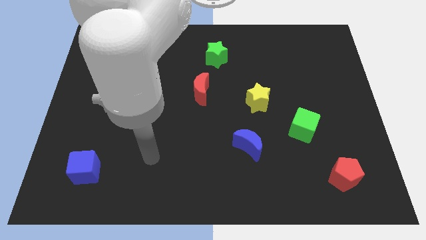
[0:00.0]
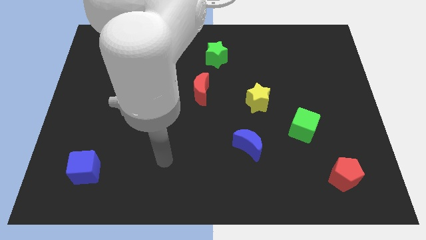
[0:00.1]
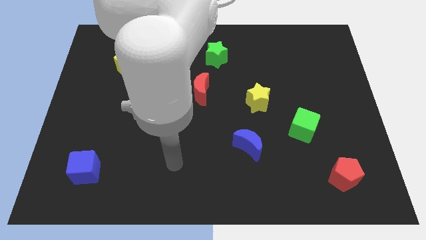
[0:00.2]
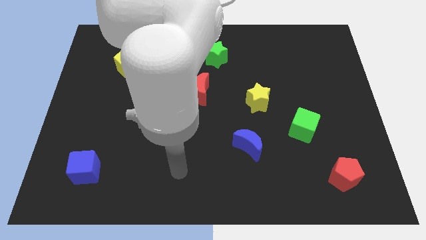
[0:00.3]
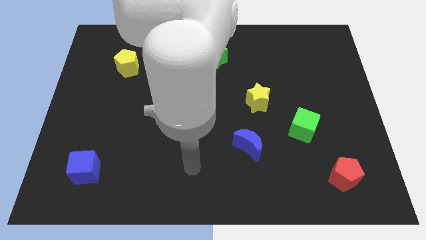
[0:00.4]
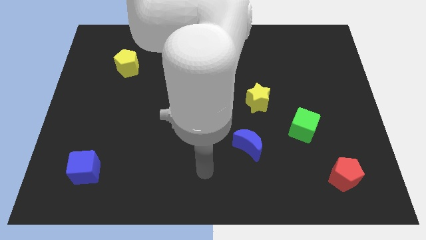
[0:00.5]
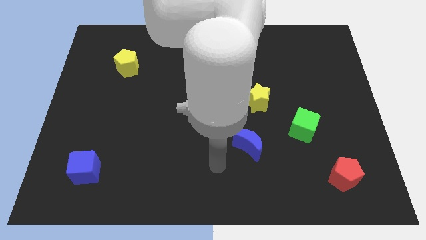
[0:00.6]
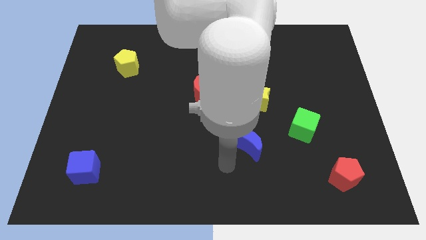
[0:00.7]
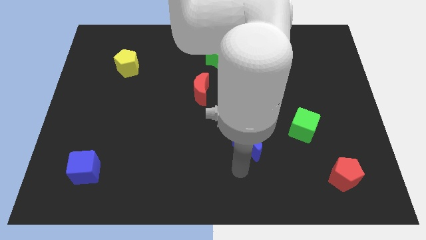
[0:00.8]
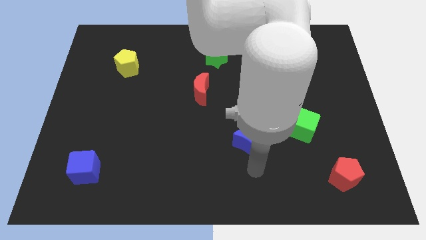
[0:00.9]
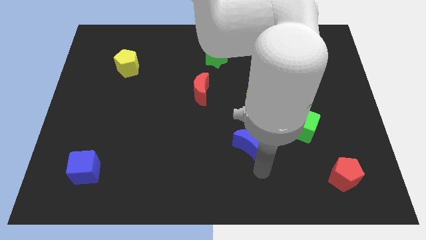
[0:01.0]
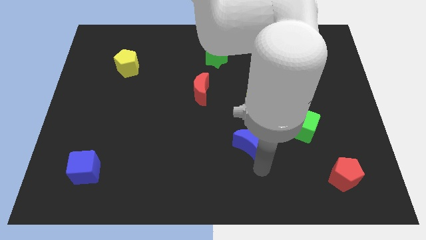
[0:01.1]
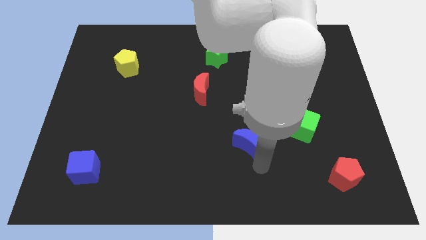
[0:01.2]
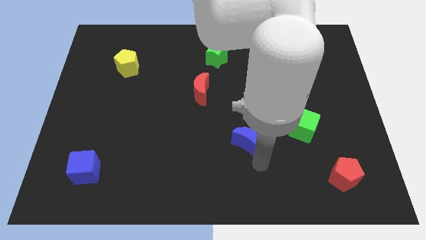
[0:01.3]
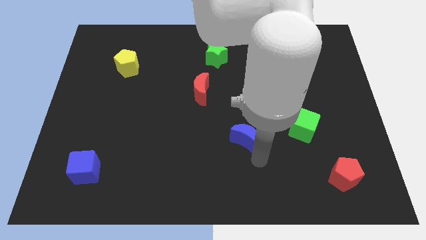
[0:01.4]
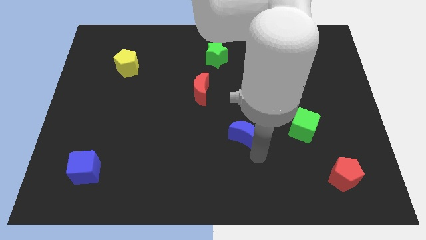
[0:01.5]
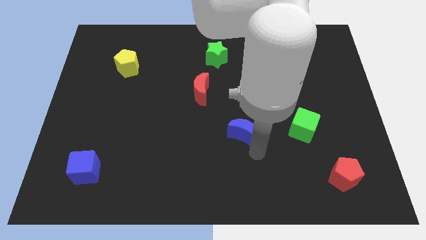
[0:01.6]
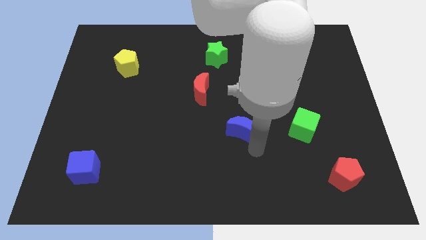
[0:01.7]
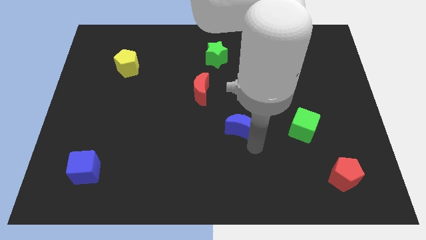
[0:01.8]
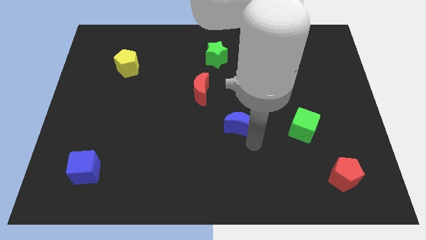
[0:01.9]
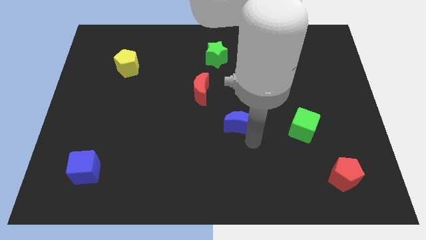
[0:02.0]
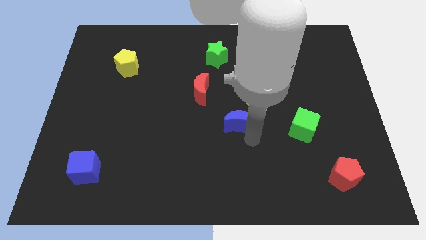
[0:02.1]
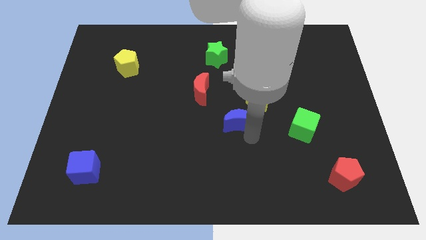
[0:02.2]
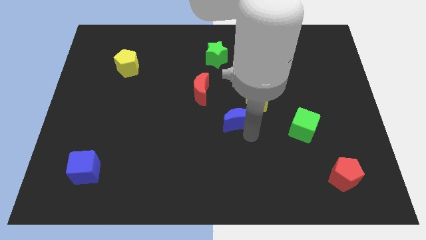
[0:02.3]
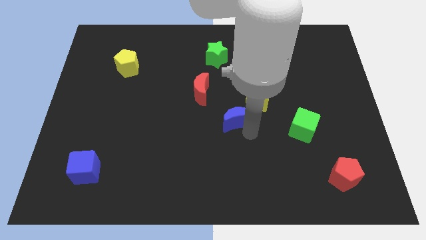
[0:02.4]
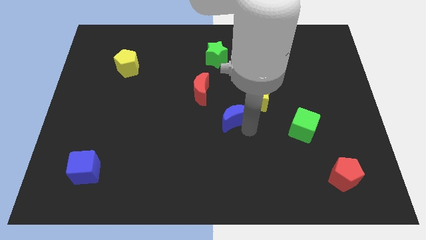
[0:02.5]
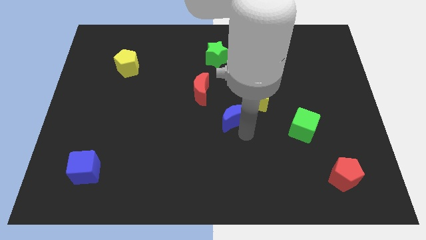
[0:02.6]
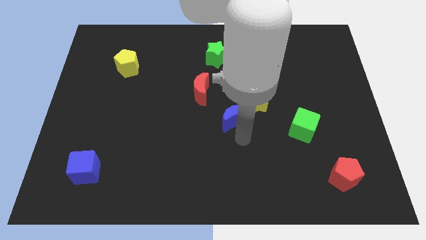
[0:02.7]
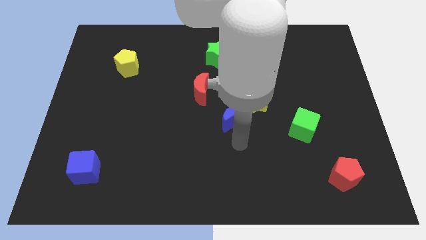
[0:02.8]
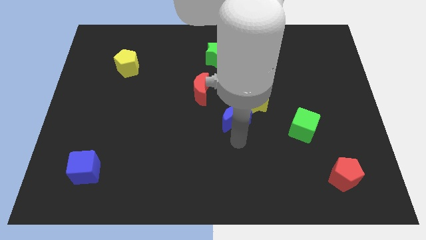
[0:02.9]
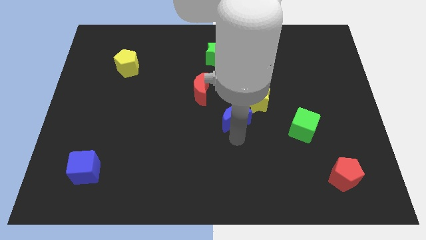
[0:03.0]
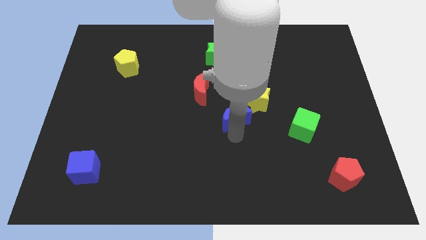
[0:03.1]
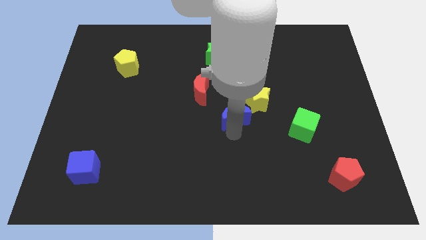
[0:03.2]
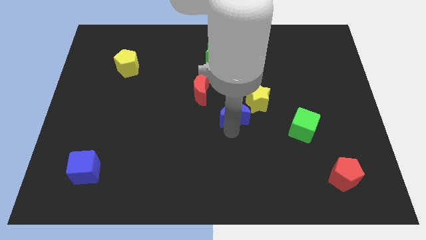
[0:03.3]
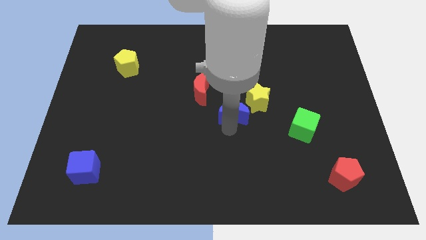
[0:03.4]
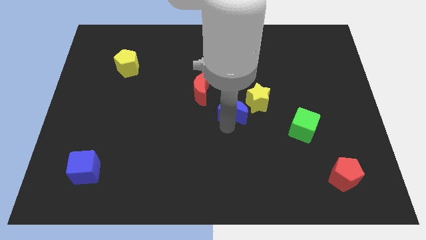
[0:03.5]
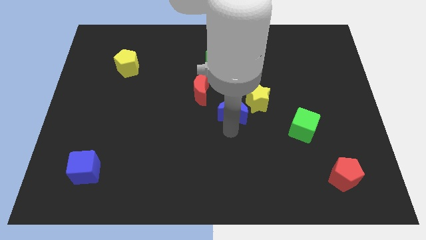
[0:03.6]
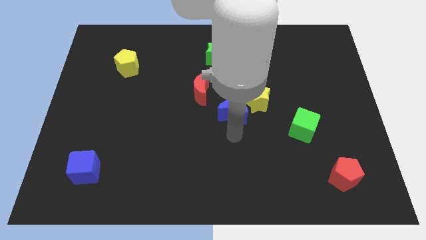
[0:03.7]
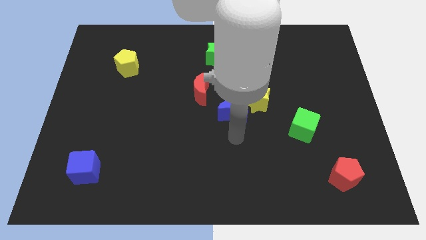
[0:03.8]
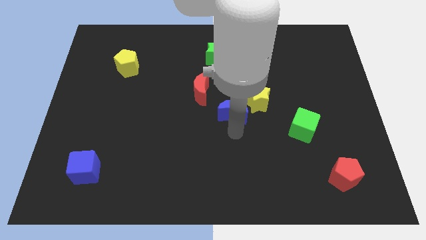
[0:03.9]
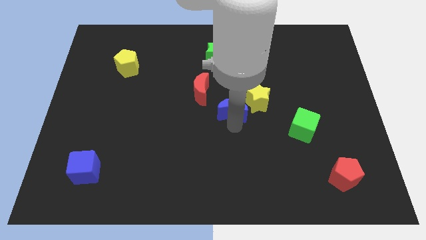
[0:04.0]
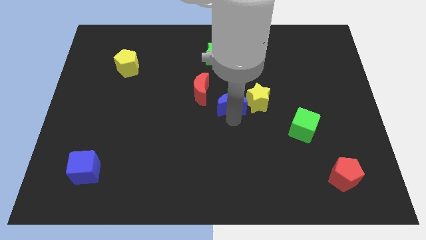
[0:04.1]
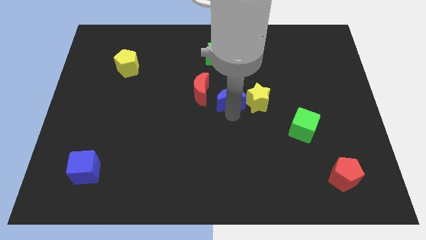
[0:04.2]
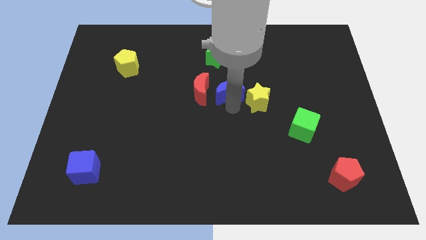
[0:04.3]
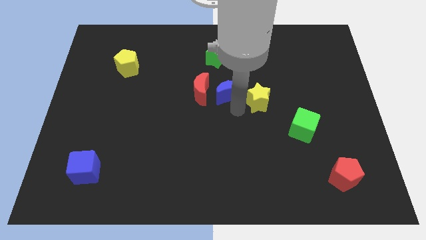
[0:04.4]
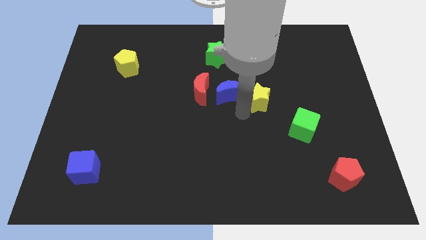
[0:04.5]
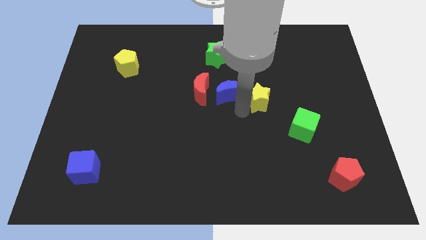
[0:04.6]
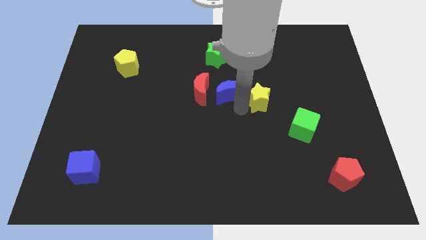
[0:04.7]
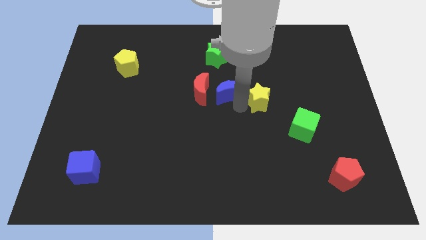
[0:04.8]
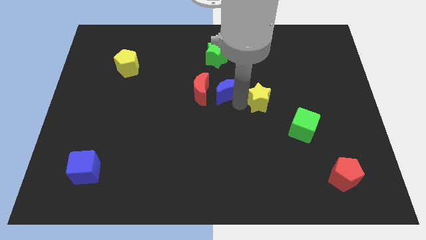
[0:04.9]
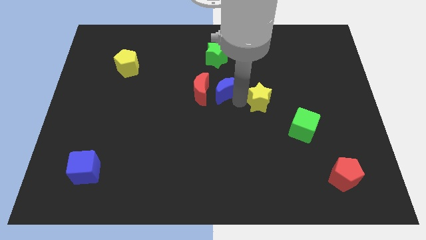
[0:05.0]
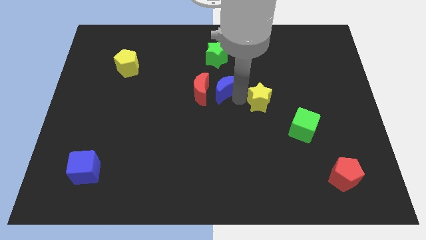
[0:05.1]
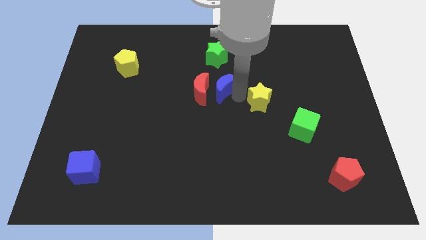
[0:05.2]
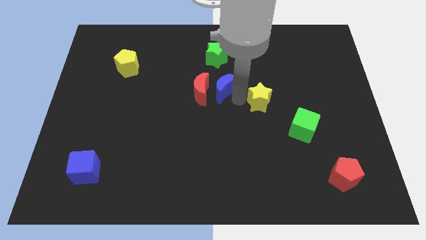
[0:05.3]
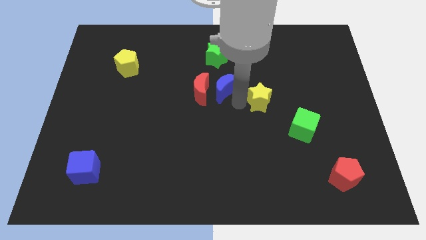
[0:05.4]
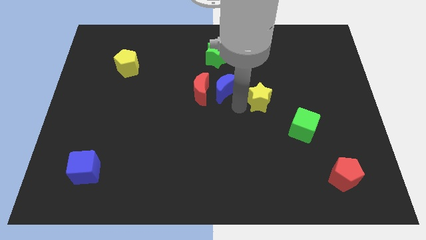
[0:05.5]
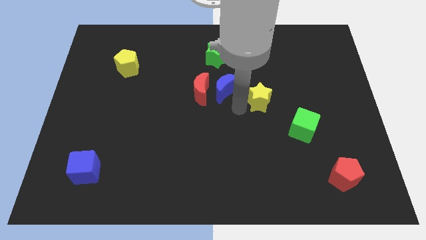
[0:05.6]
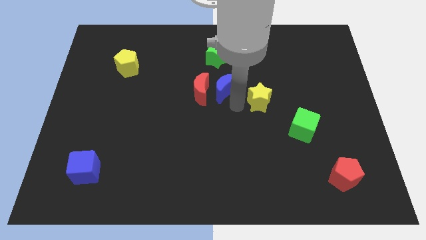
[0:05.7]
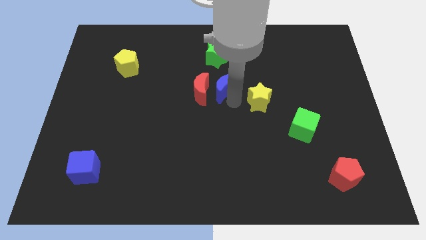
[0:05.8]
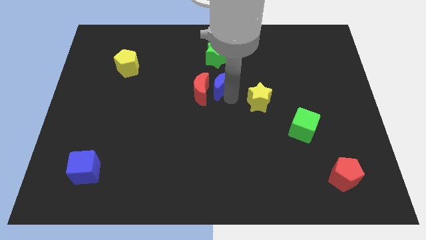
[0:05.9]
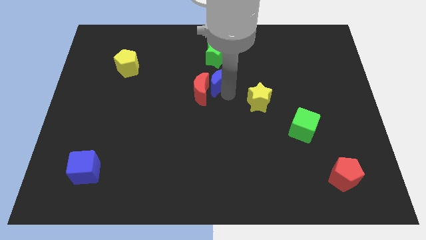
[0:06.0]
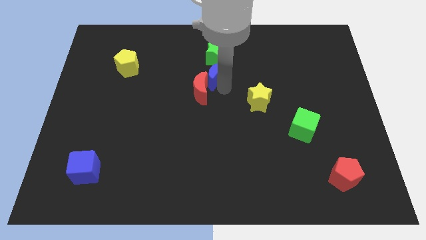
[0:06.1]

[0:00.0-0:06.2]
move the blue moon to the top of the red moon

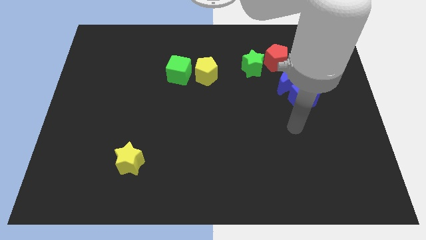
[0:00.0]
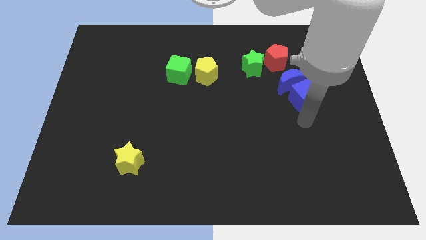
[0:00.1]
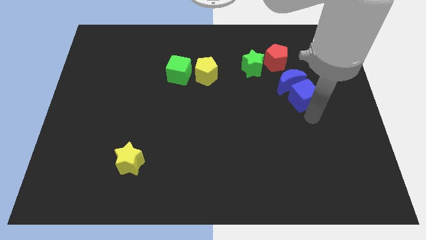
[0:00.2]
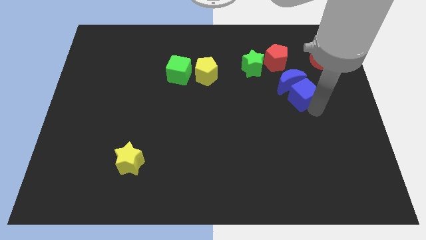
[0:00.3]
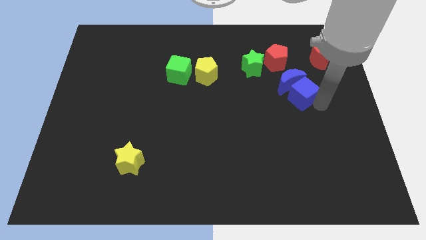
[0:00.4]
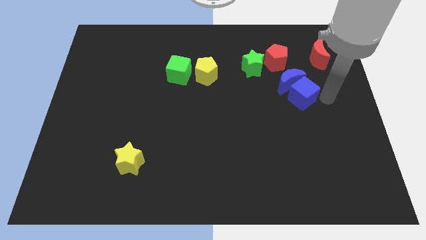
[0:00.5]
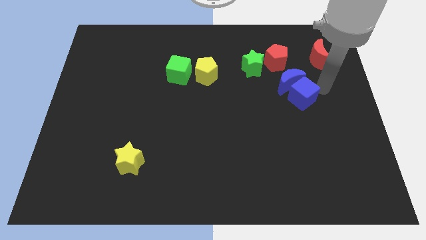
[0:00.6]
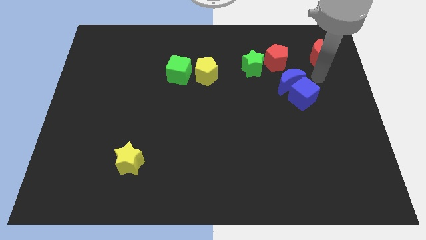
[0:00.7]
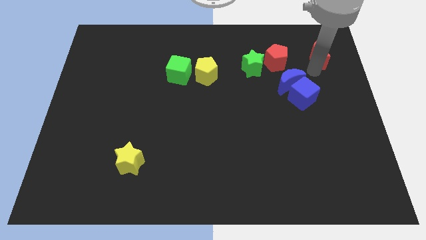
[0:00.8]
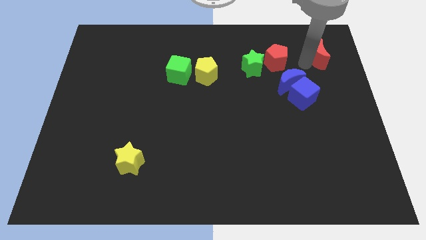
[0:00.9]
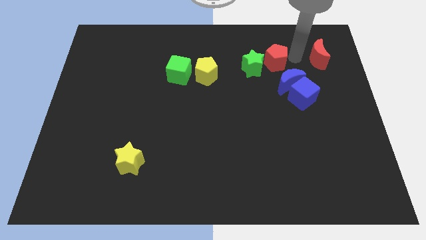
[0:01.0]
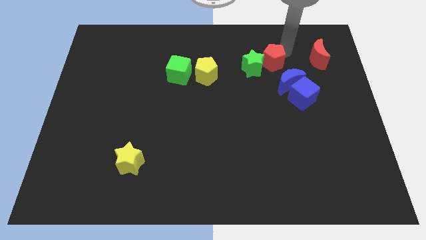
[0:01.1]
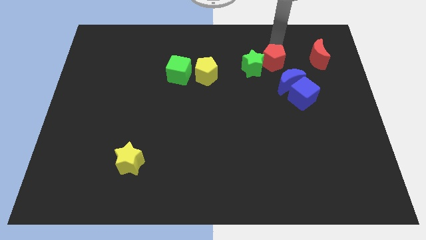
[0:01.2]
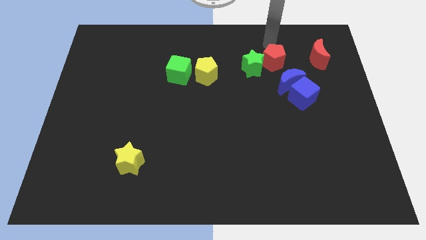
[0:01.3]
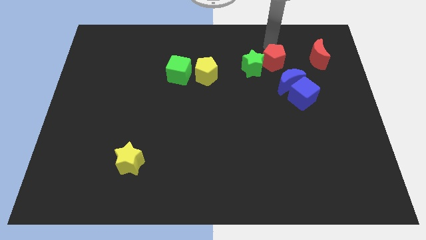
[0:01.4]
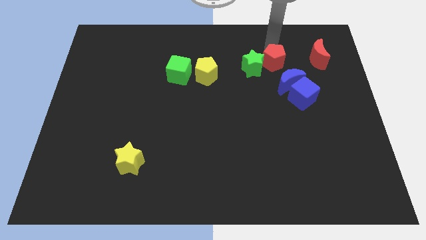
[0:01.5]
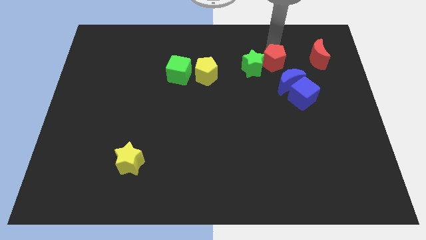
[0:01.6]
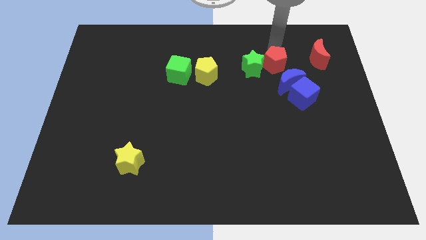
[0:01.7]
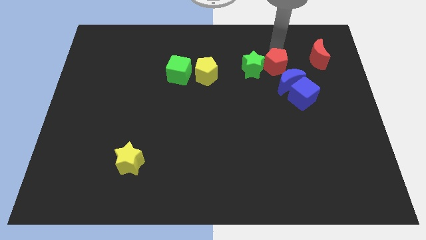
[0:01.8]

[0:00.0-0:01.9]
push the red pentagon to the top left side of the blue cube
